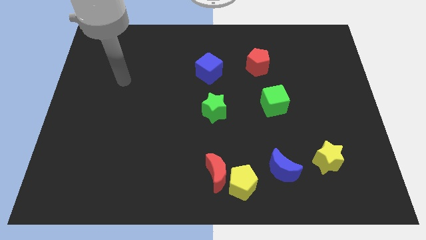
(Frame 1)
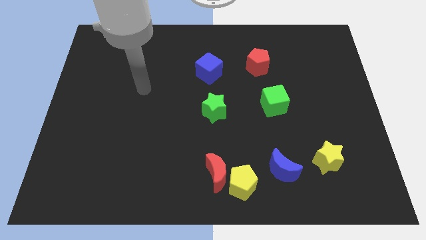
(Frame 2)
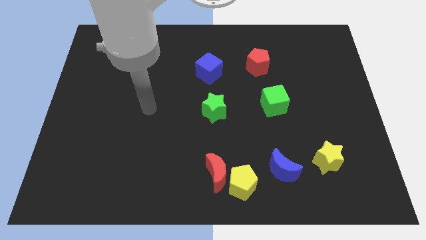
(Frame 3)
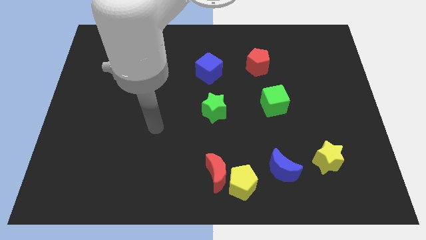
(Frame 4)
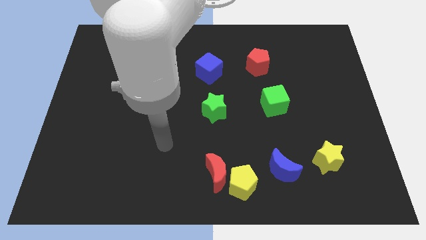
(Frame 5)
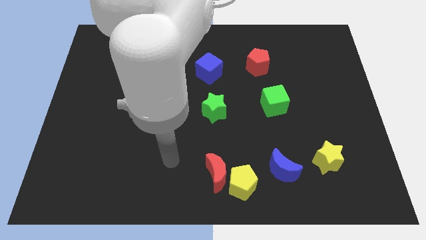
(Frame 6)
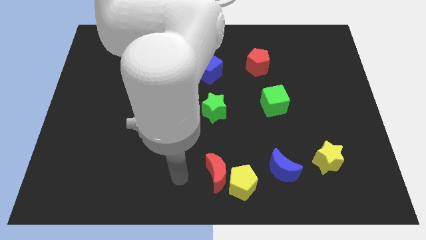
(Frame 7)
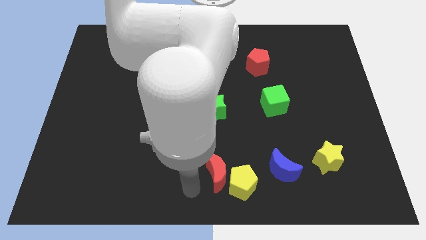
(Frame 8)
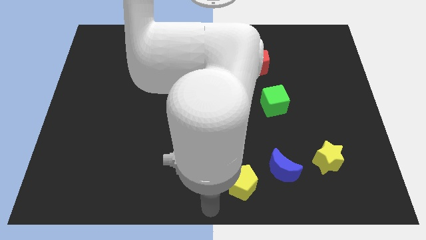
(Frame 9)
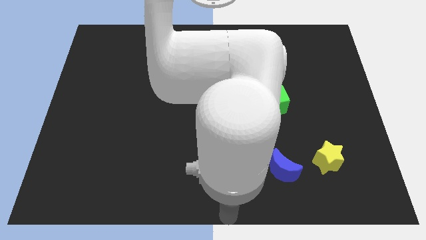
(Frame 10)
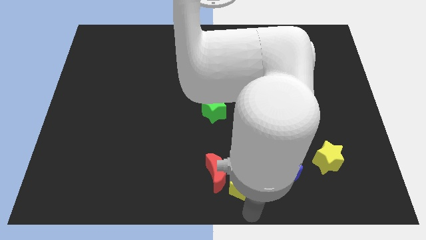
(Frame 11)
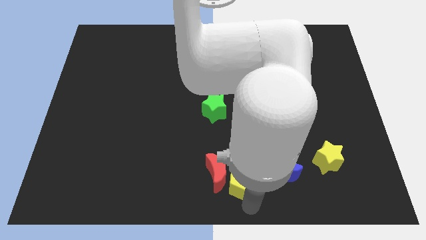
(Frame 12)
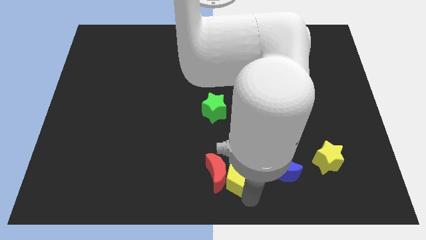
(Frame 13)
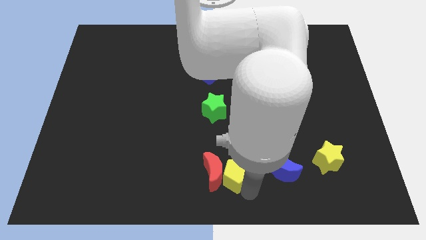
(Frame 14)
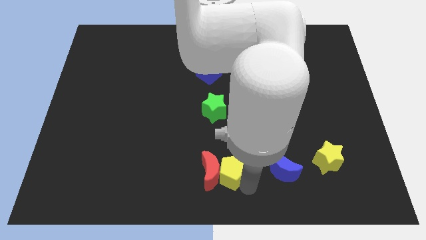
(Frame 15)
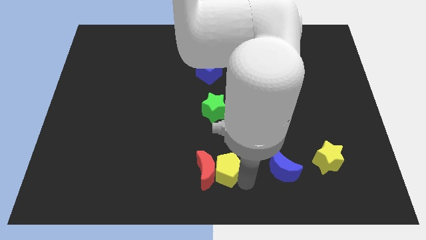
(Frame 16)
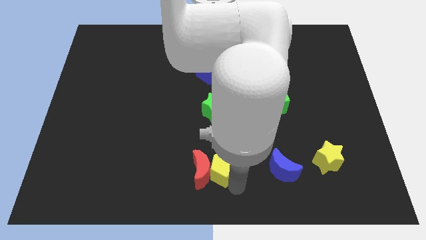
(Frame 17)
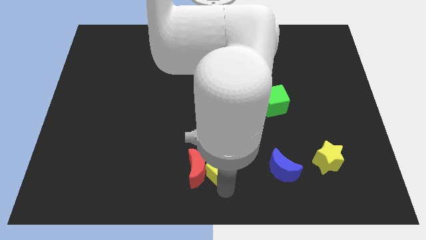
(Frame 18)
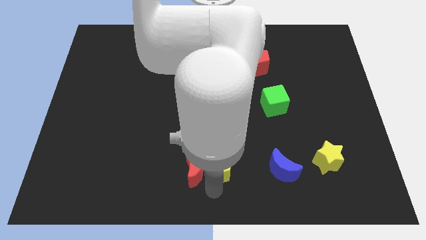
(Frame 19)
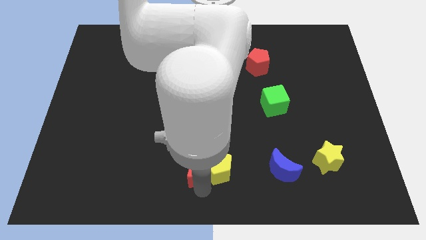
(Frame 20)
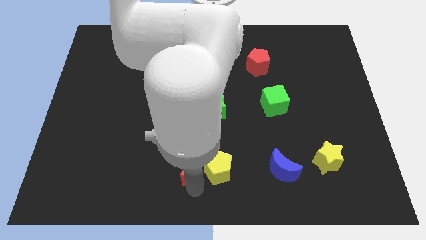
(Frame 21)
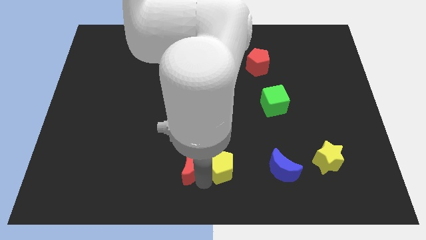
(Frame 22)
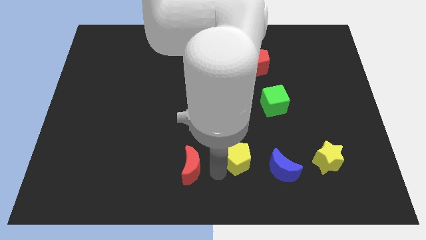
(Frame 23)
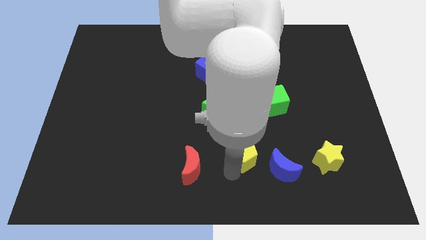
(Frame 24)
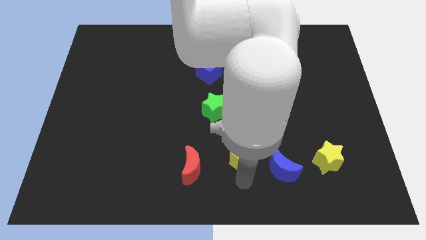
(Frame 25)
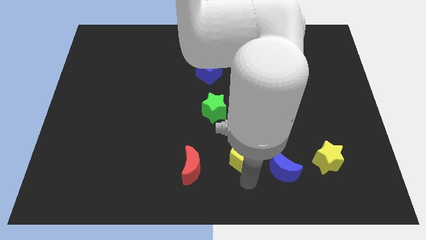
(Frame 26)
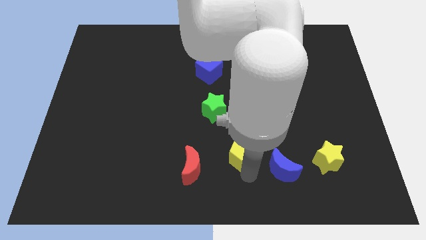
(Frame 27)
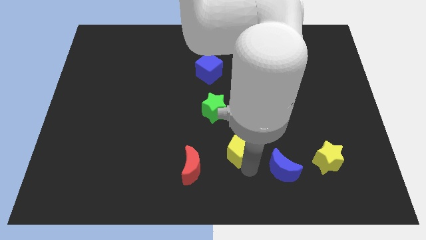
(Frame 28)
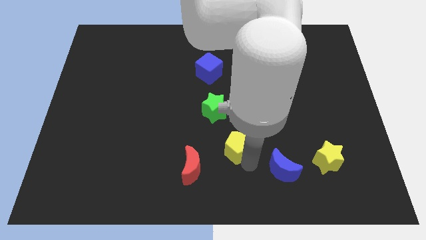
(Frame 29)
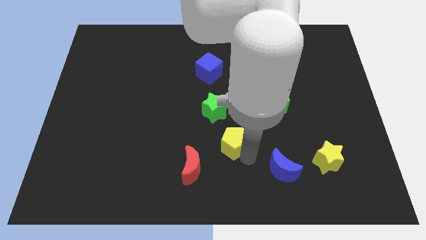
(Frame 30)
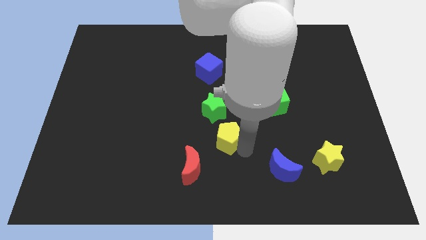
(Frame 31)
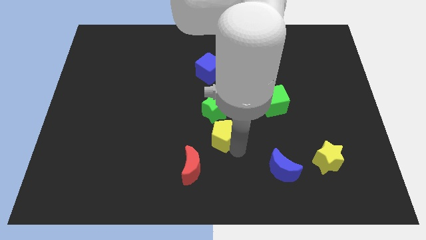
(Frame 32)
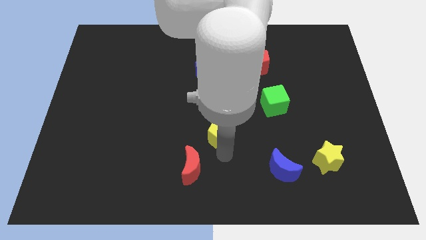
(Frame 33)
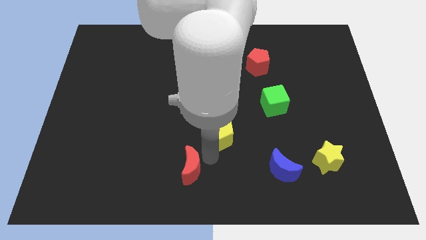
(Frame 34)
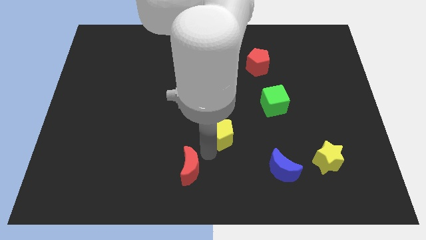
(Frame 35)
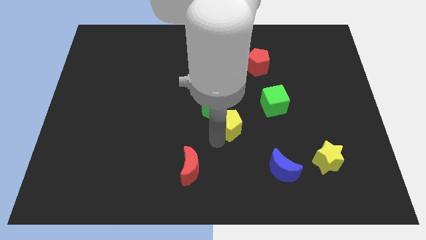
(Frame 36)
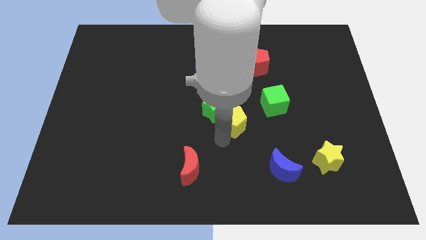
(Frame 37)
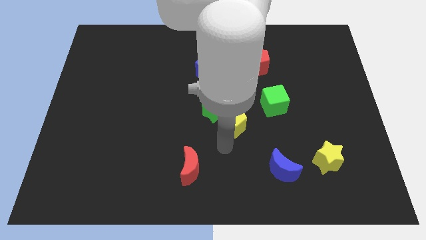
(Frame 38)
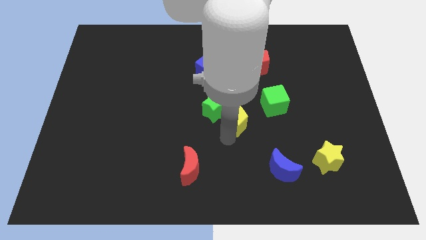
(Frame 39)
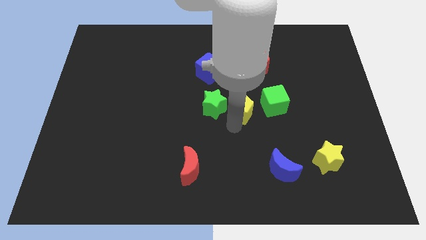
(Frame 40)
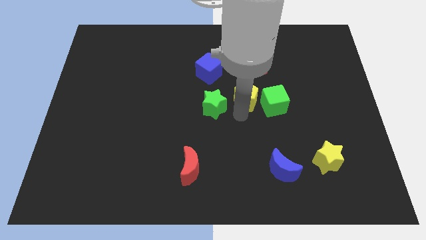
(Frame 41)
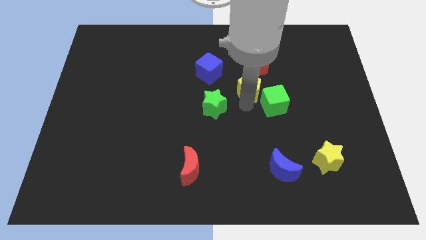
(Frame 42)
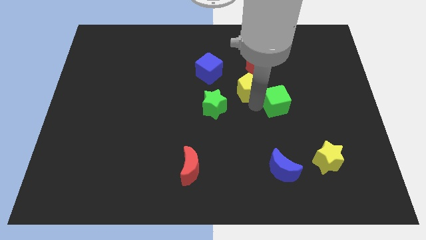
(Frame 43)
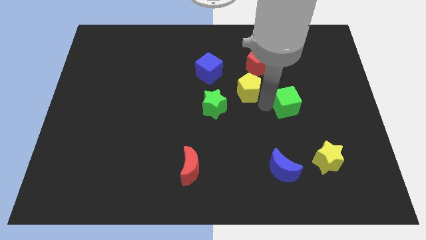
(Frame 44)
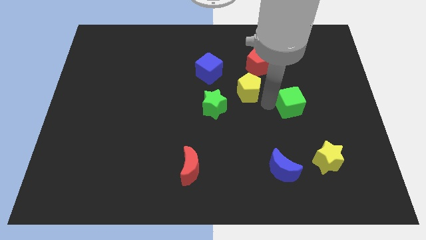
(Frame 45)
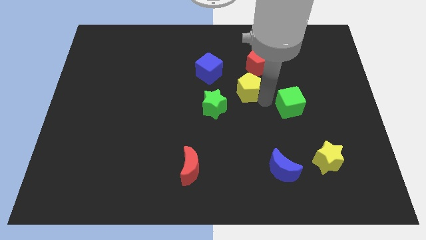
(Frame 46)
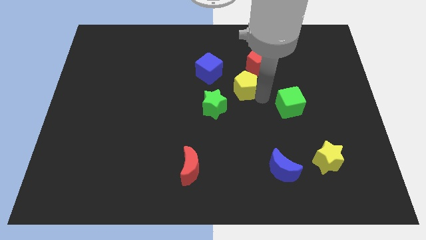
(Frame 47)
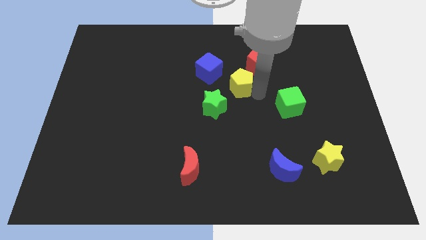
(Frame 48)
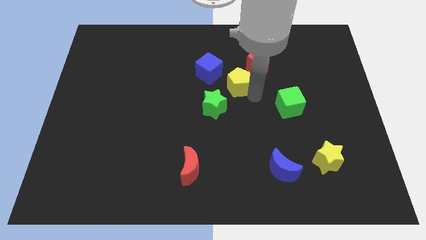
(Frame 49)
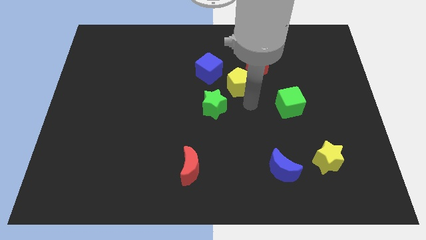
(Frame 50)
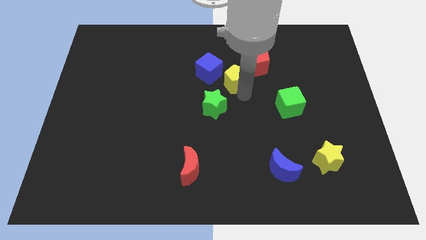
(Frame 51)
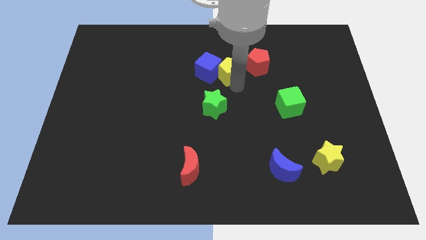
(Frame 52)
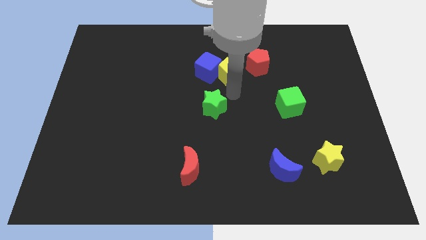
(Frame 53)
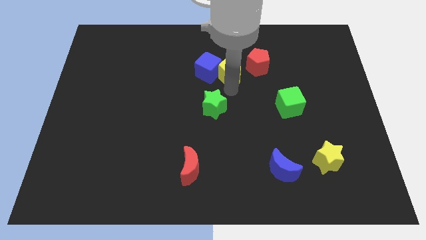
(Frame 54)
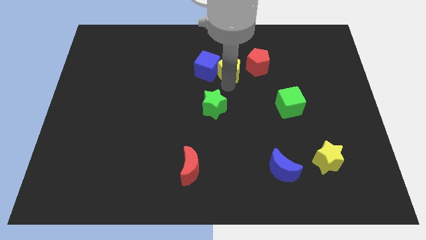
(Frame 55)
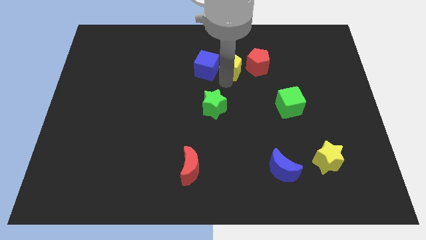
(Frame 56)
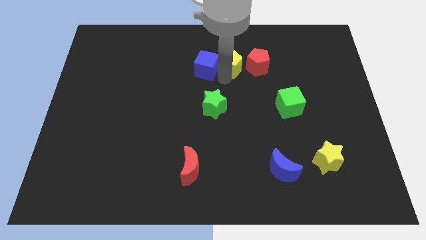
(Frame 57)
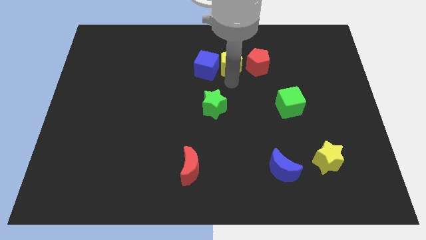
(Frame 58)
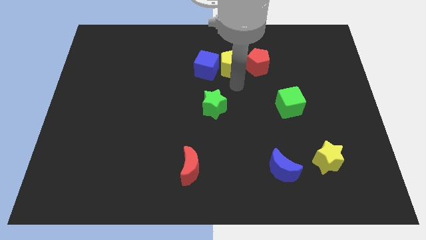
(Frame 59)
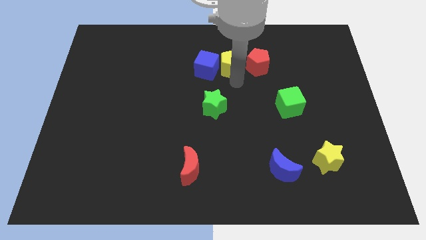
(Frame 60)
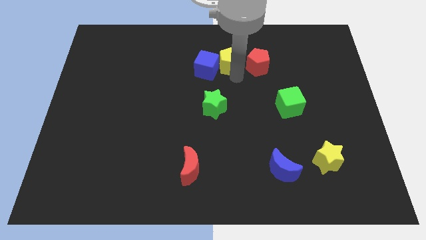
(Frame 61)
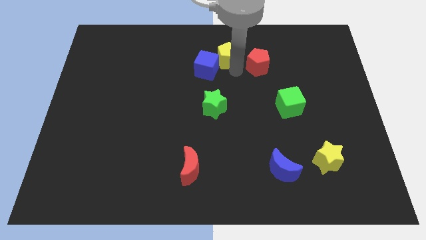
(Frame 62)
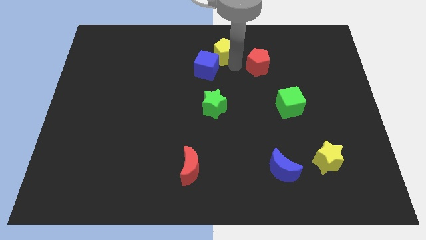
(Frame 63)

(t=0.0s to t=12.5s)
move the yellow pentagon to the top side

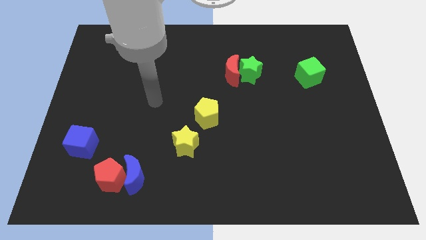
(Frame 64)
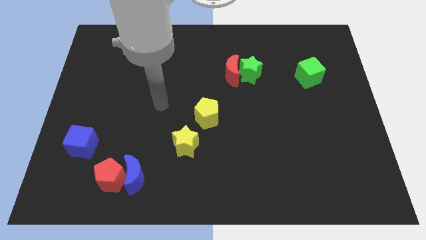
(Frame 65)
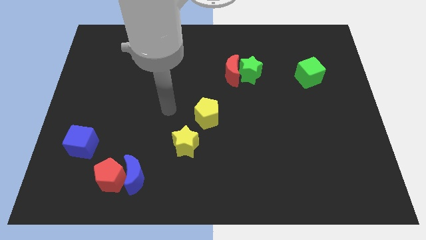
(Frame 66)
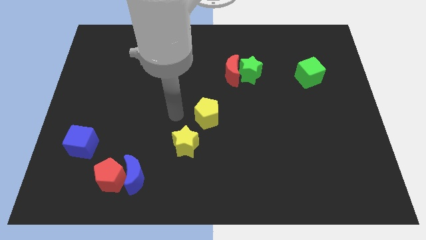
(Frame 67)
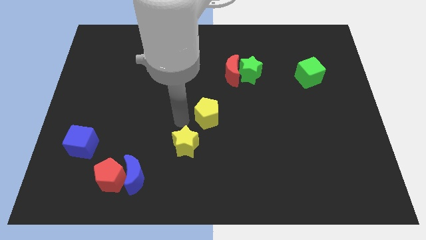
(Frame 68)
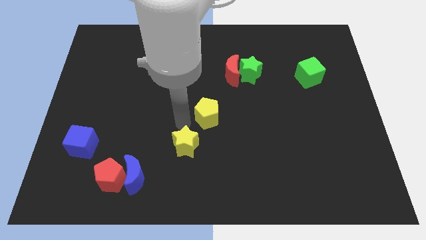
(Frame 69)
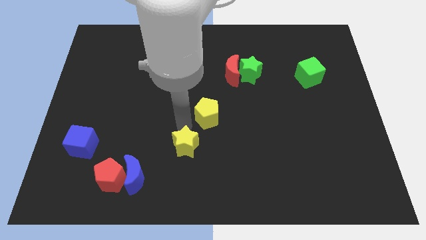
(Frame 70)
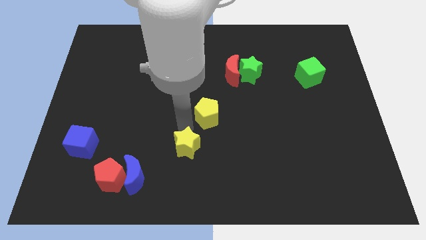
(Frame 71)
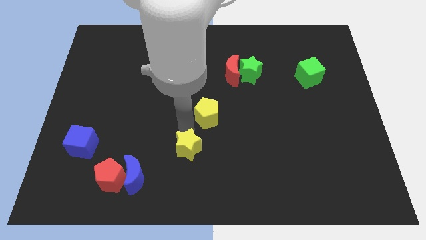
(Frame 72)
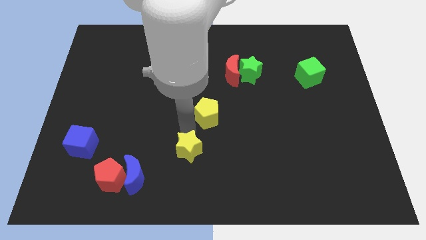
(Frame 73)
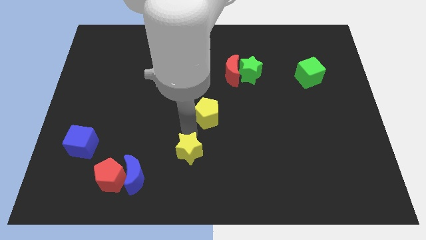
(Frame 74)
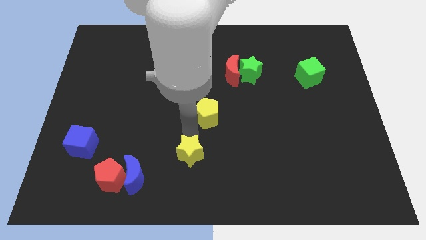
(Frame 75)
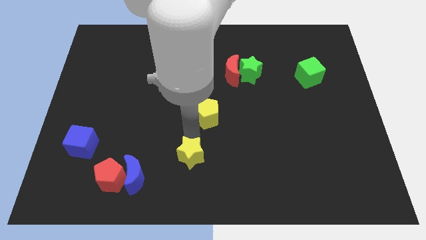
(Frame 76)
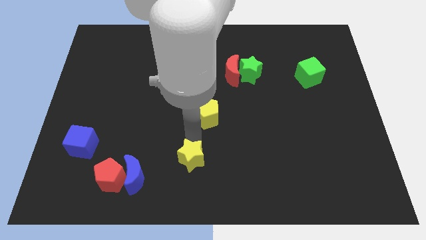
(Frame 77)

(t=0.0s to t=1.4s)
put the yellow star to the bottom side
